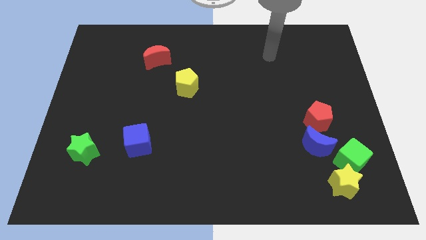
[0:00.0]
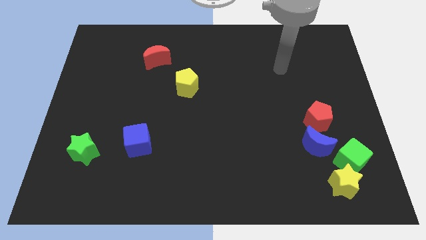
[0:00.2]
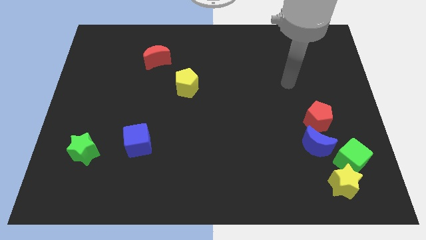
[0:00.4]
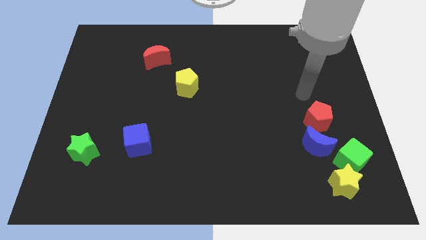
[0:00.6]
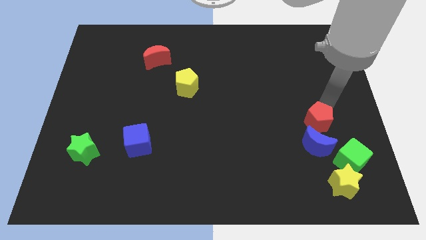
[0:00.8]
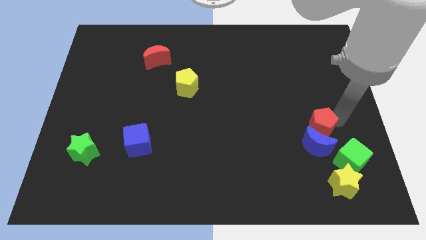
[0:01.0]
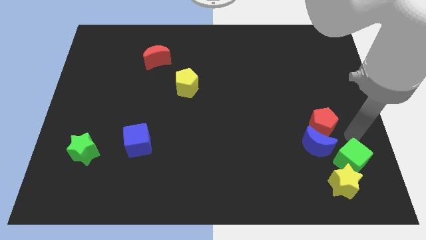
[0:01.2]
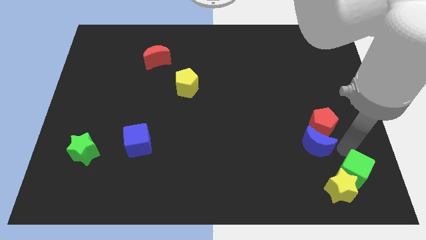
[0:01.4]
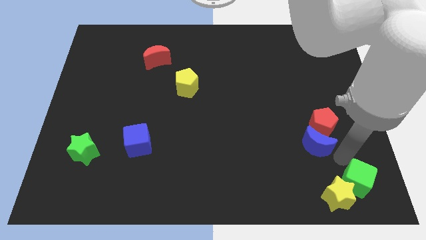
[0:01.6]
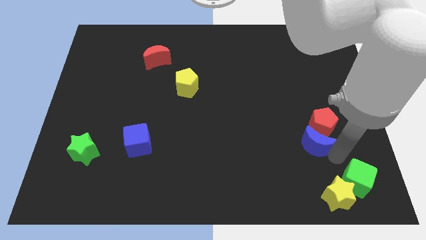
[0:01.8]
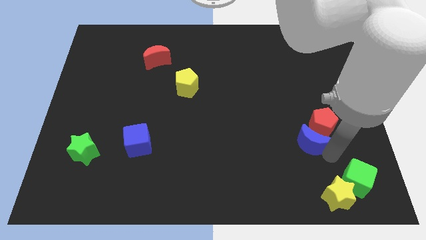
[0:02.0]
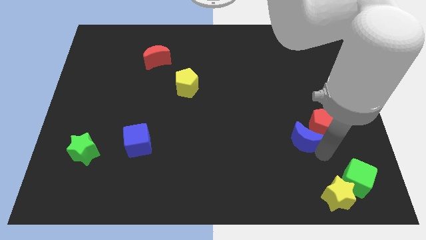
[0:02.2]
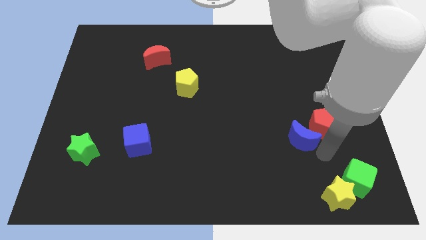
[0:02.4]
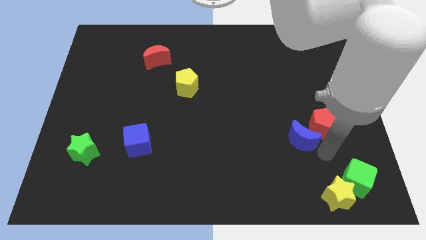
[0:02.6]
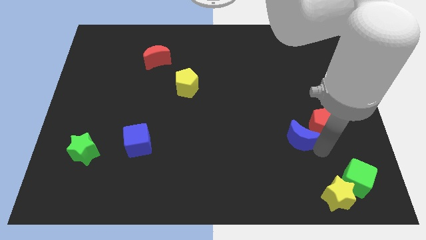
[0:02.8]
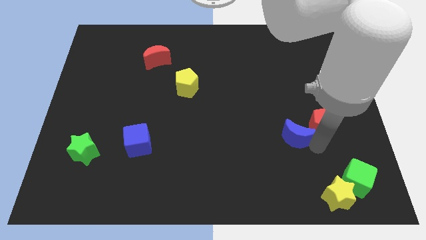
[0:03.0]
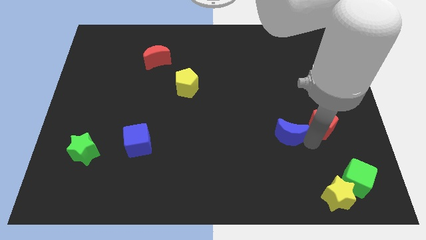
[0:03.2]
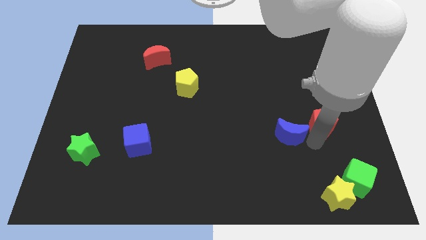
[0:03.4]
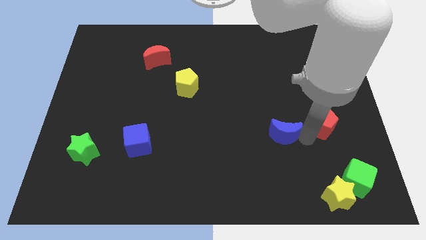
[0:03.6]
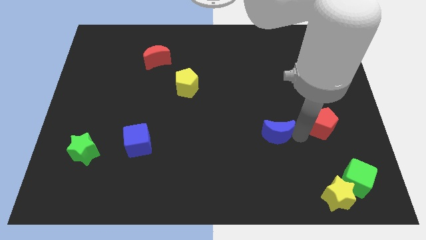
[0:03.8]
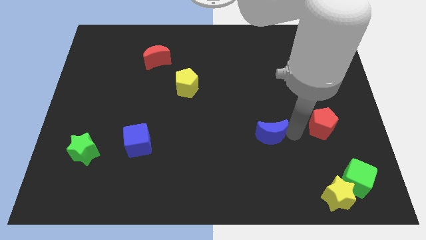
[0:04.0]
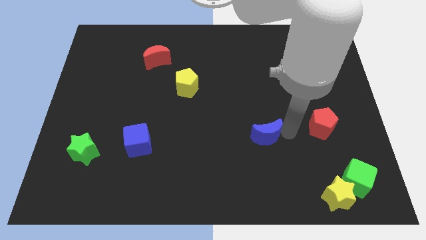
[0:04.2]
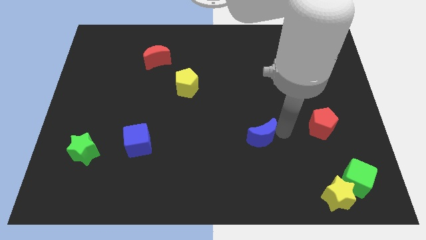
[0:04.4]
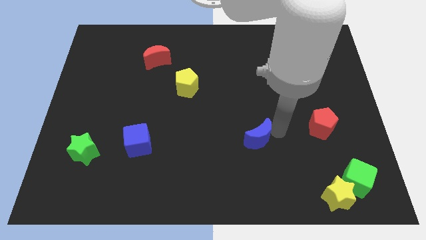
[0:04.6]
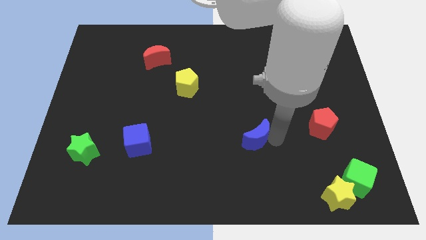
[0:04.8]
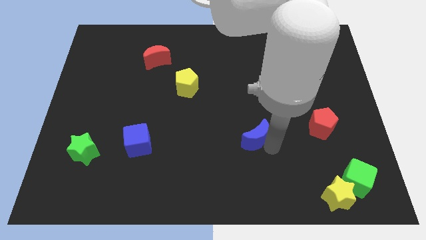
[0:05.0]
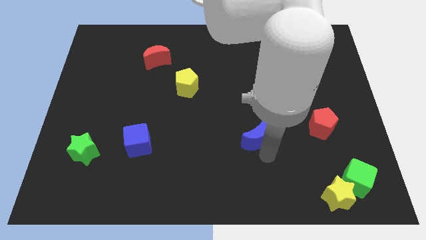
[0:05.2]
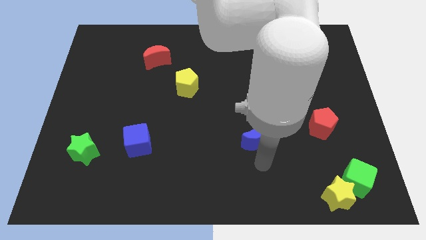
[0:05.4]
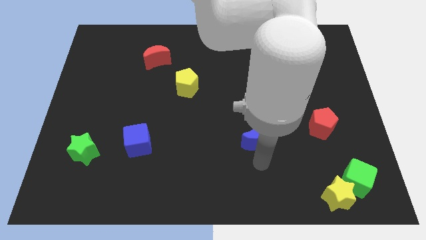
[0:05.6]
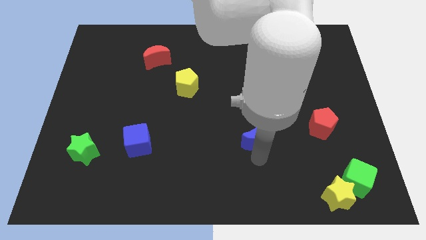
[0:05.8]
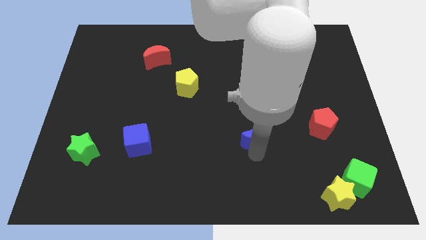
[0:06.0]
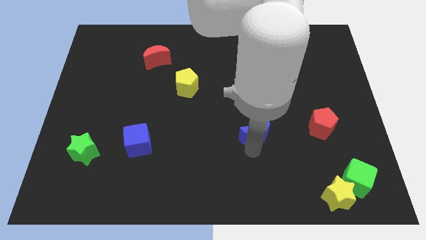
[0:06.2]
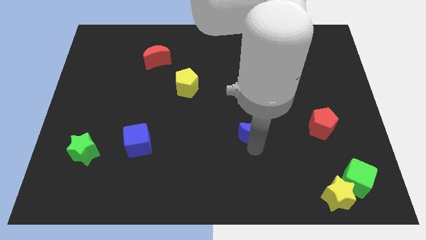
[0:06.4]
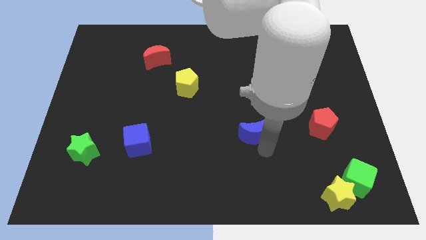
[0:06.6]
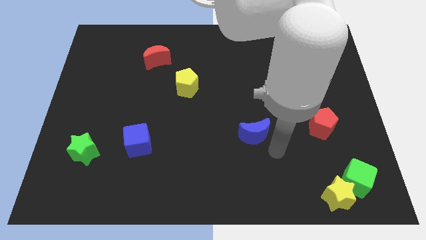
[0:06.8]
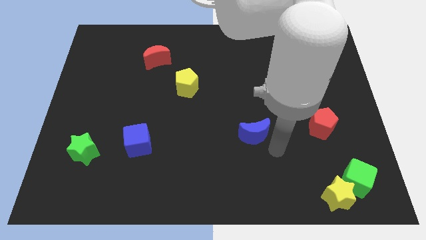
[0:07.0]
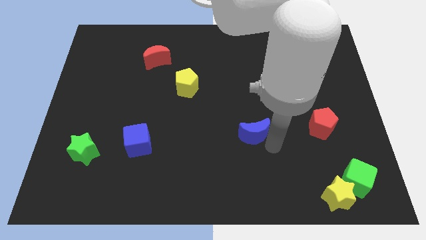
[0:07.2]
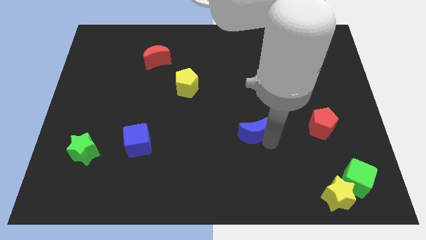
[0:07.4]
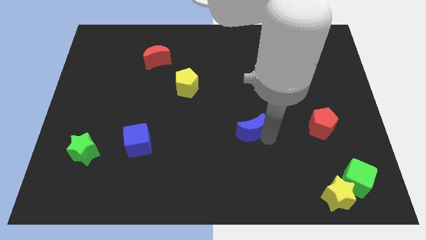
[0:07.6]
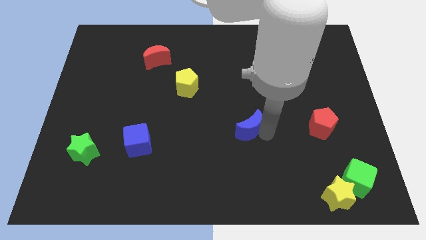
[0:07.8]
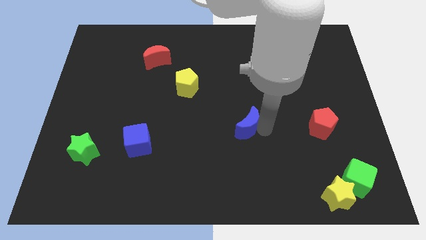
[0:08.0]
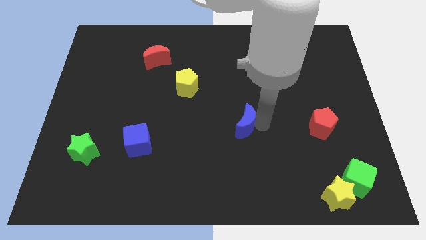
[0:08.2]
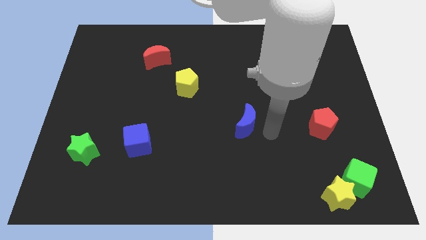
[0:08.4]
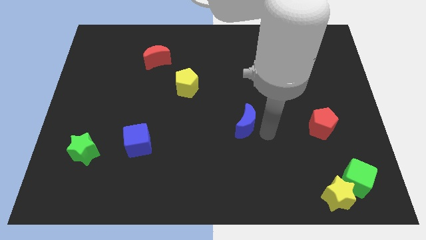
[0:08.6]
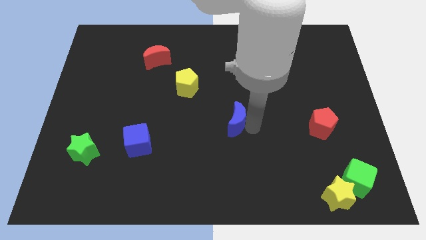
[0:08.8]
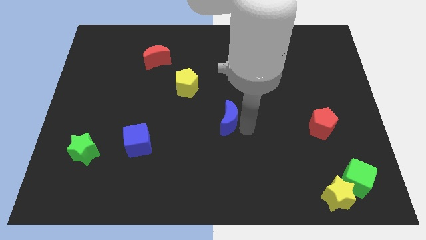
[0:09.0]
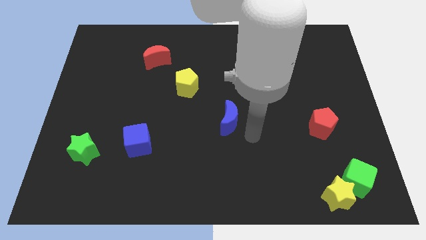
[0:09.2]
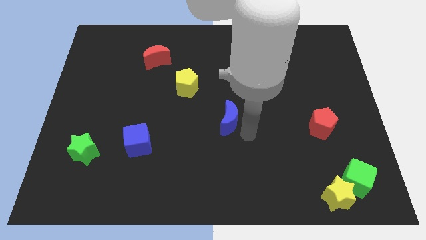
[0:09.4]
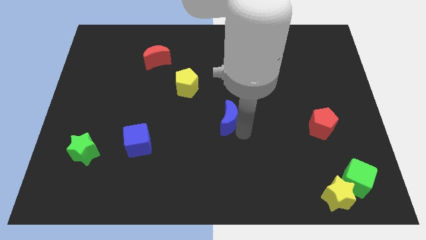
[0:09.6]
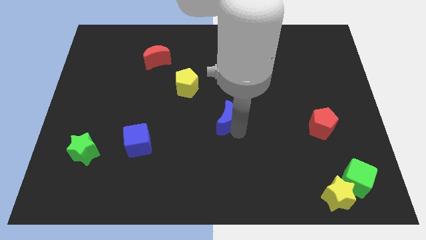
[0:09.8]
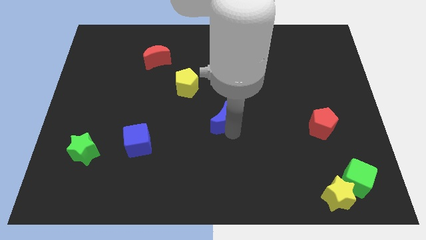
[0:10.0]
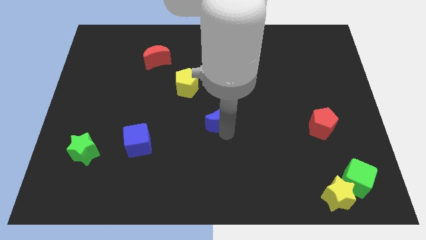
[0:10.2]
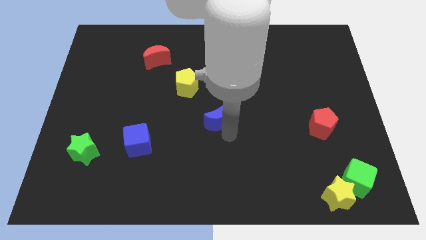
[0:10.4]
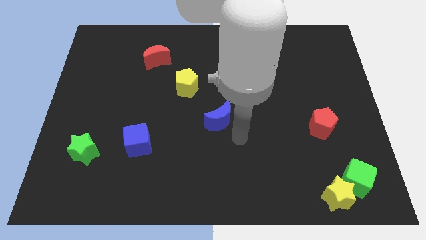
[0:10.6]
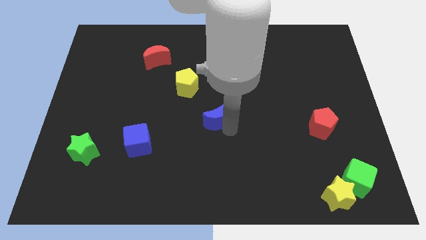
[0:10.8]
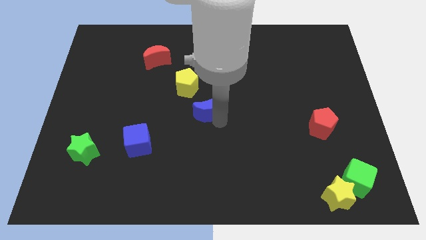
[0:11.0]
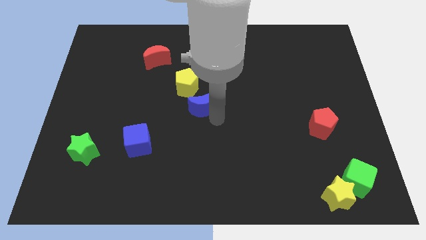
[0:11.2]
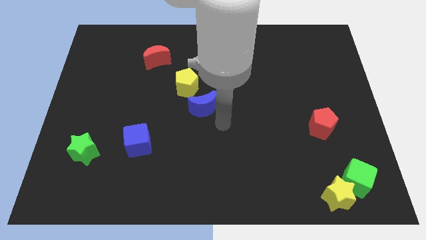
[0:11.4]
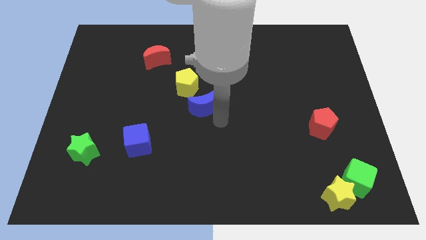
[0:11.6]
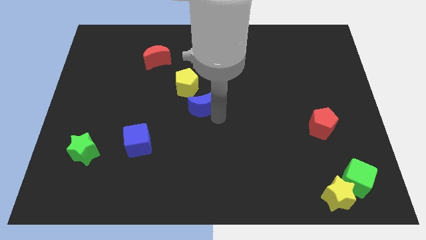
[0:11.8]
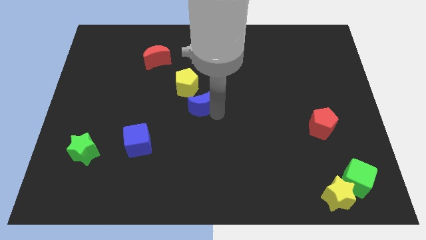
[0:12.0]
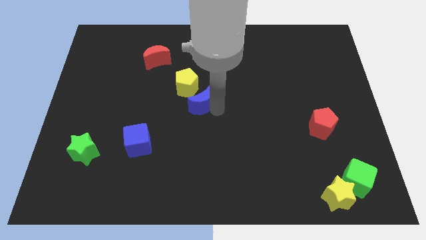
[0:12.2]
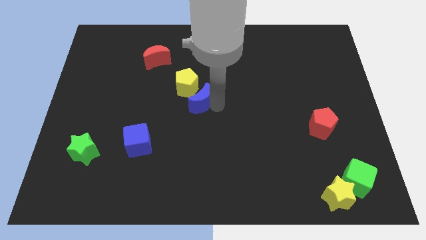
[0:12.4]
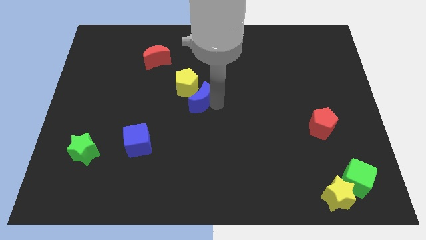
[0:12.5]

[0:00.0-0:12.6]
push the blue moon next to the yellow pentagon

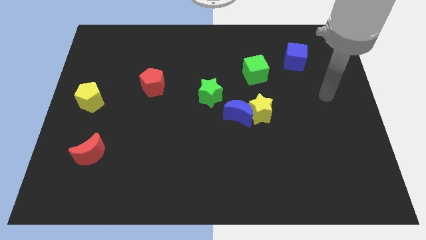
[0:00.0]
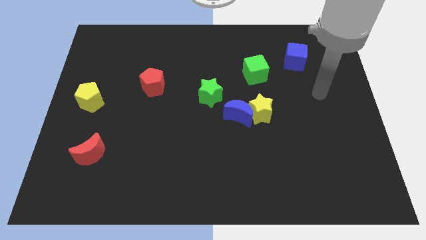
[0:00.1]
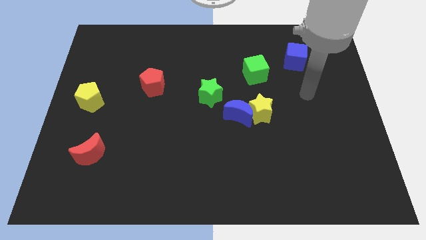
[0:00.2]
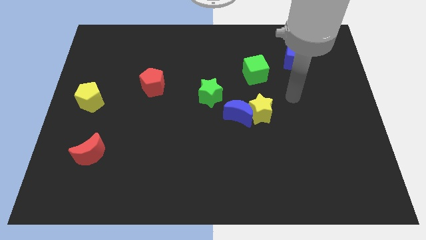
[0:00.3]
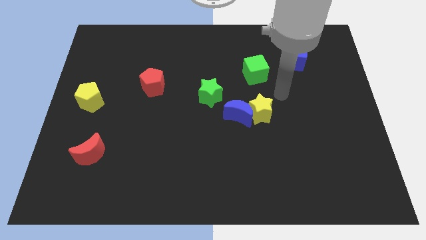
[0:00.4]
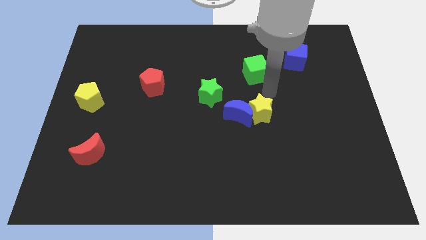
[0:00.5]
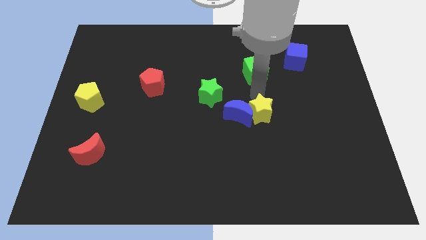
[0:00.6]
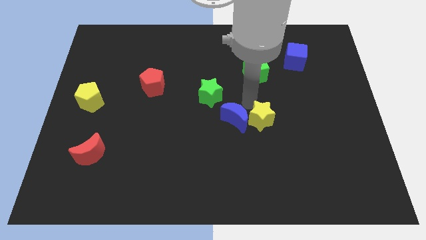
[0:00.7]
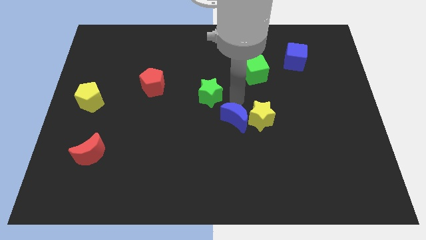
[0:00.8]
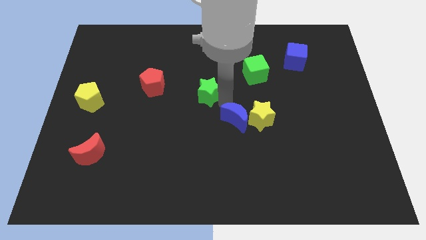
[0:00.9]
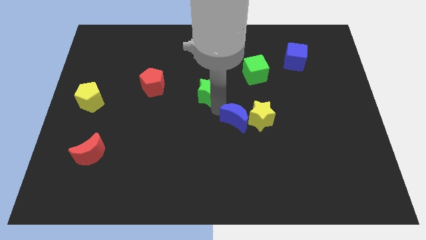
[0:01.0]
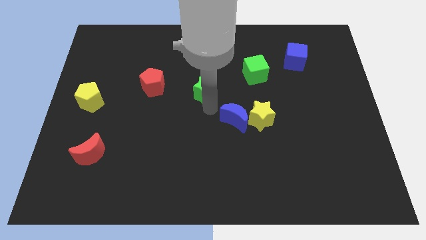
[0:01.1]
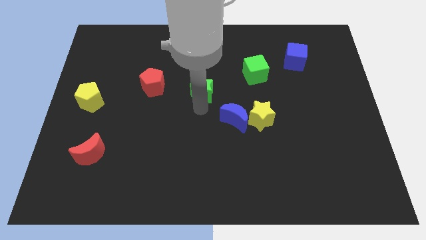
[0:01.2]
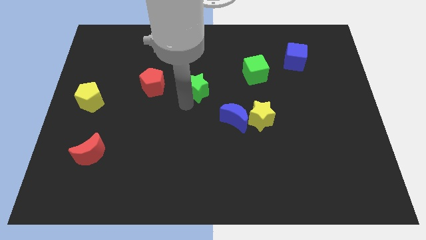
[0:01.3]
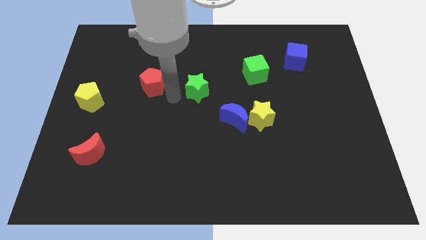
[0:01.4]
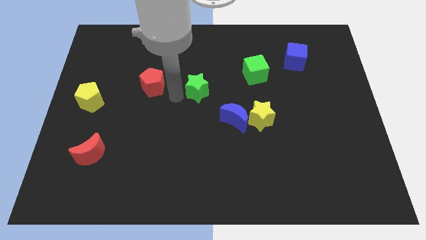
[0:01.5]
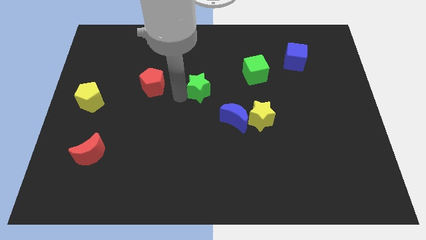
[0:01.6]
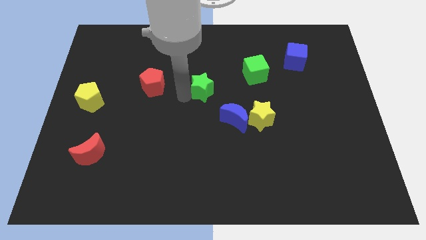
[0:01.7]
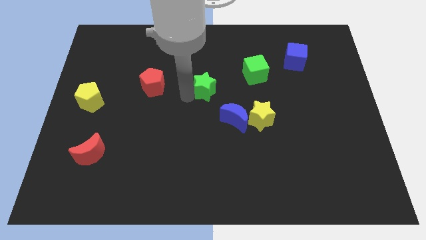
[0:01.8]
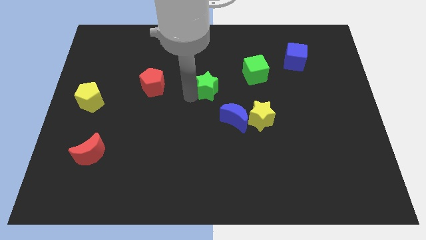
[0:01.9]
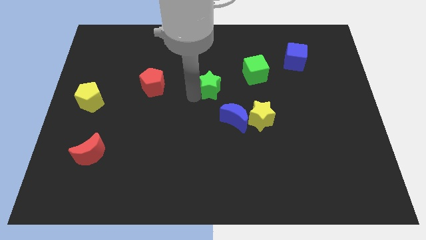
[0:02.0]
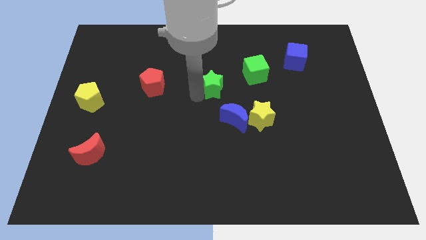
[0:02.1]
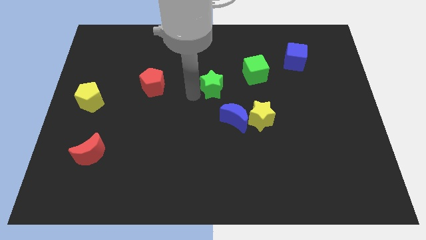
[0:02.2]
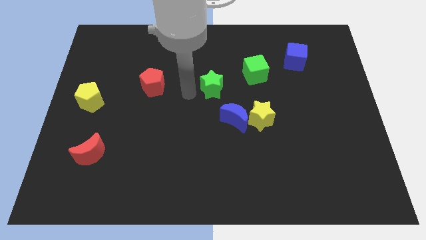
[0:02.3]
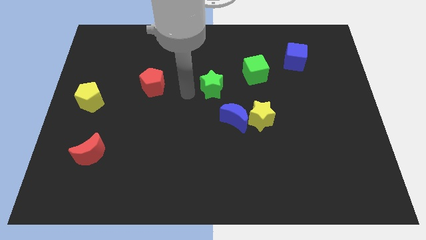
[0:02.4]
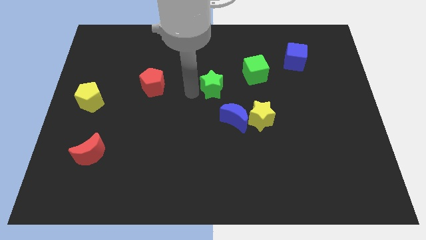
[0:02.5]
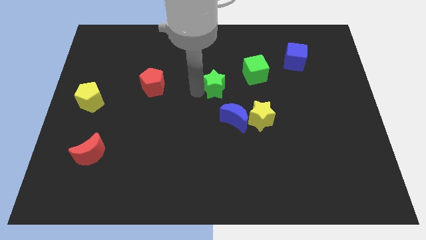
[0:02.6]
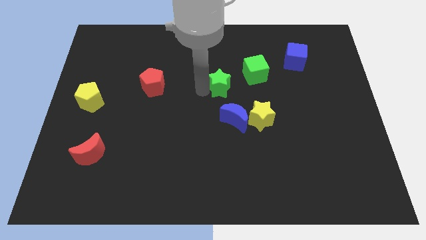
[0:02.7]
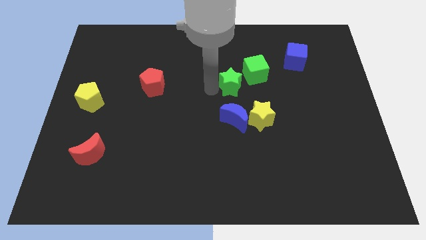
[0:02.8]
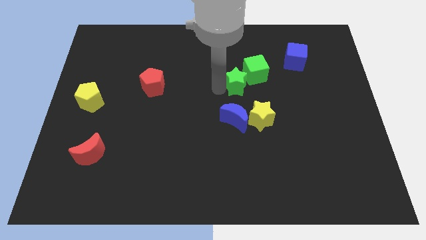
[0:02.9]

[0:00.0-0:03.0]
put the green star towards the green cube
